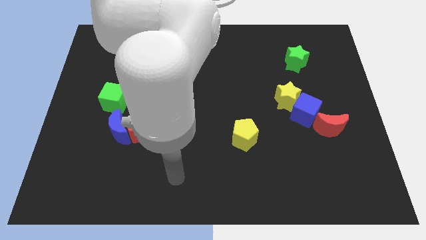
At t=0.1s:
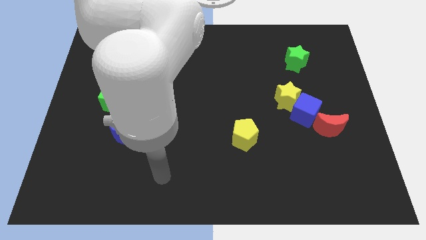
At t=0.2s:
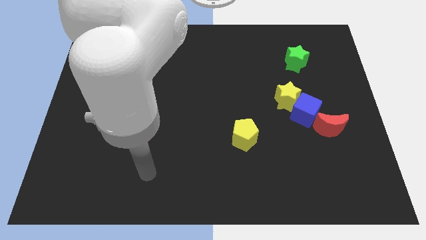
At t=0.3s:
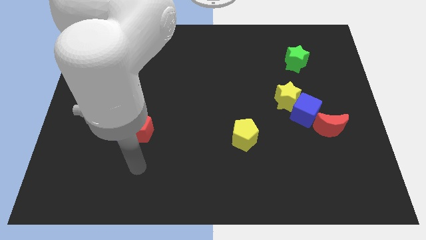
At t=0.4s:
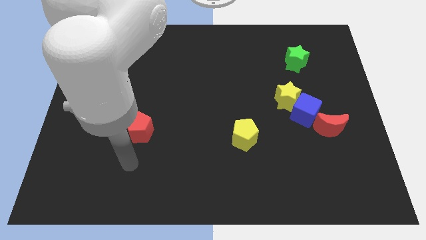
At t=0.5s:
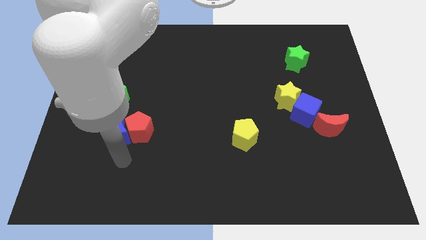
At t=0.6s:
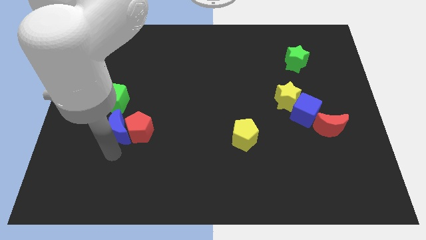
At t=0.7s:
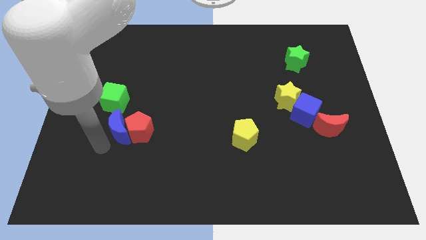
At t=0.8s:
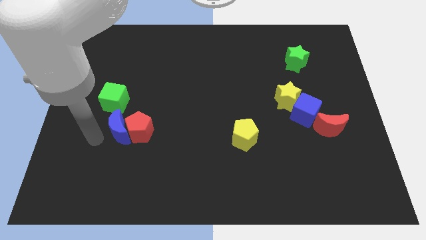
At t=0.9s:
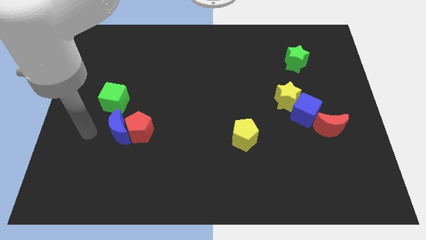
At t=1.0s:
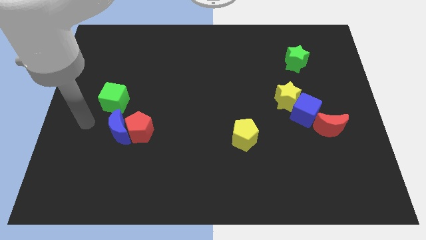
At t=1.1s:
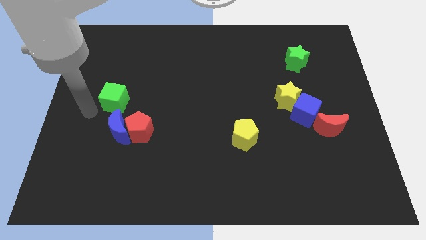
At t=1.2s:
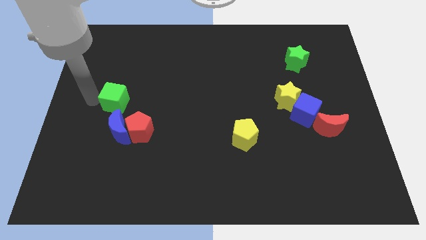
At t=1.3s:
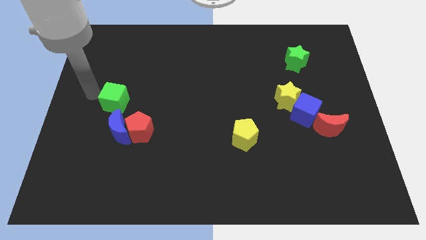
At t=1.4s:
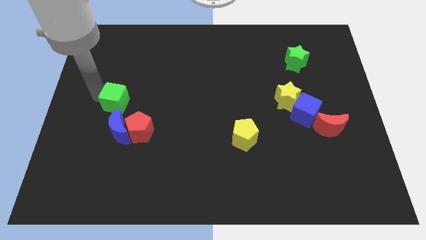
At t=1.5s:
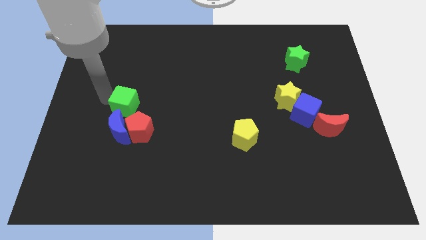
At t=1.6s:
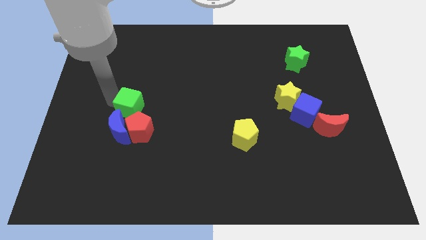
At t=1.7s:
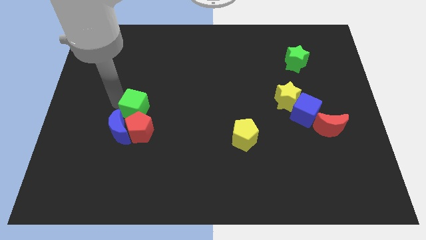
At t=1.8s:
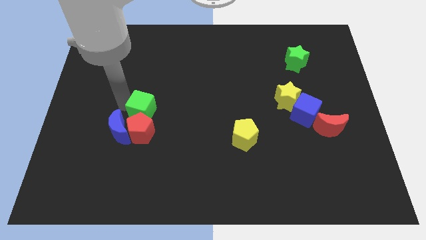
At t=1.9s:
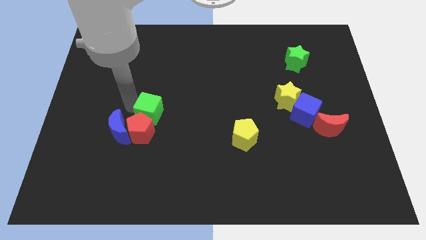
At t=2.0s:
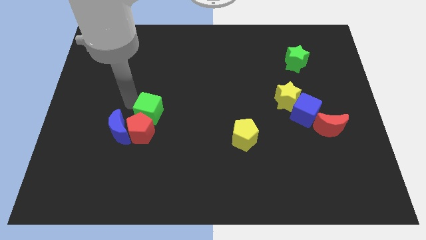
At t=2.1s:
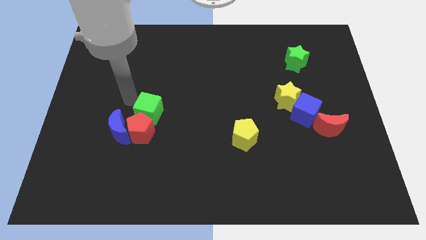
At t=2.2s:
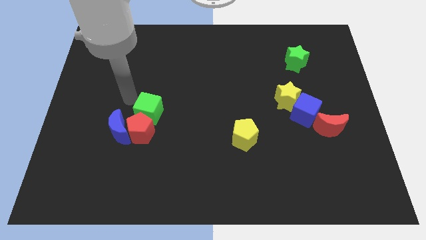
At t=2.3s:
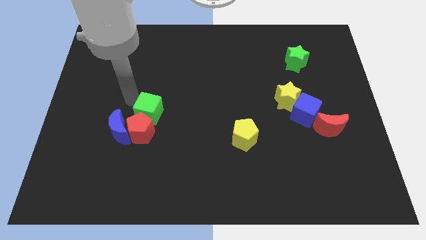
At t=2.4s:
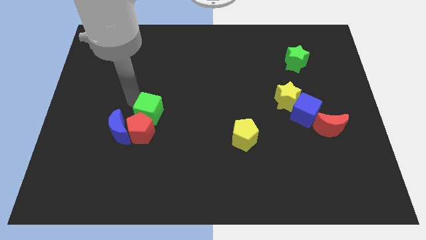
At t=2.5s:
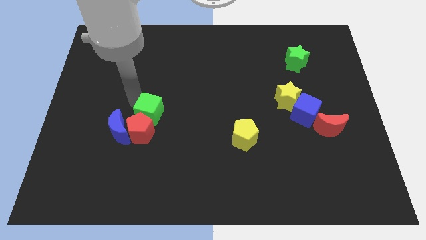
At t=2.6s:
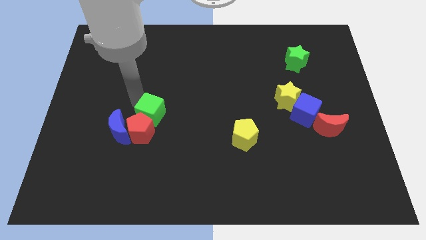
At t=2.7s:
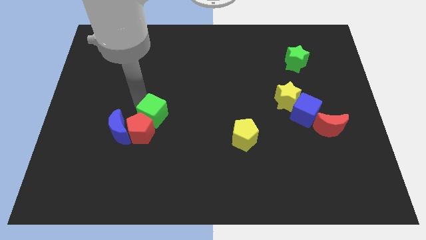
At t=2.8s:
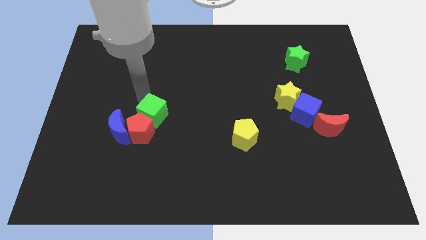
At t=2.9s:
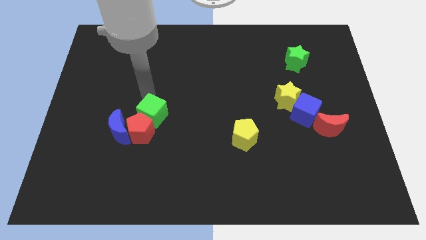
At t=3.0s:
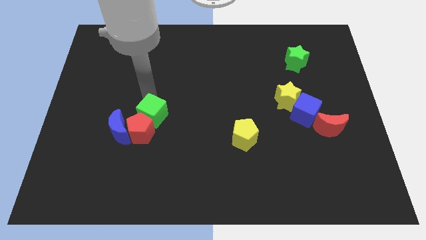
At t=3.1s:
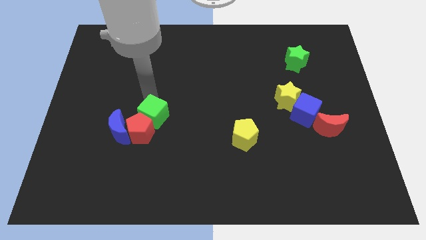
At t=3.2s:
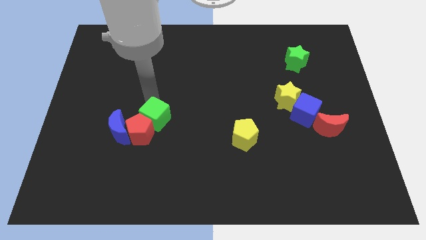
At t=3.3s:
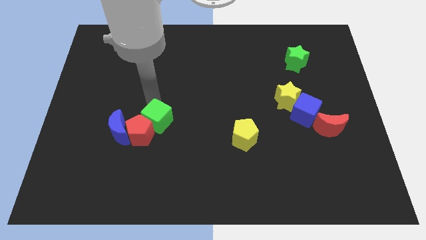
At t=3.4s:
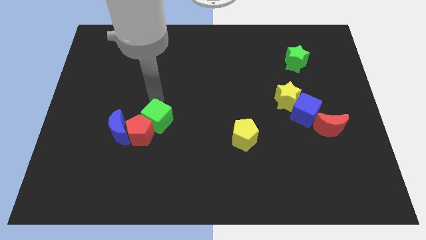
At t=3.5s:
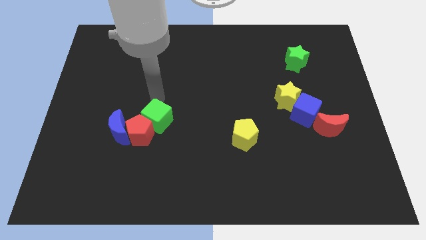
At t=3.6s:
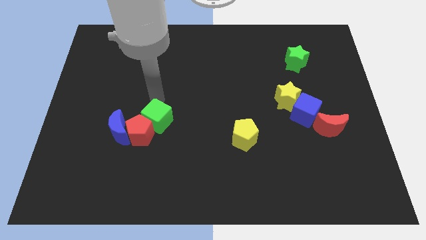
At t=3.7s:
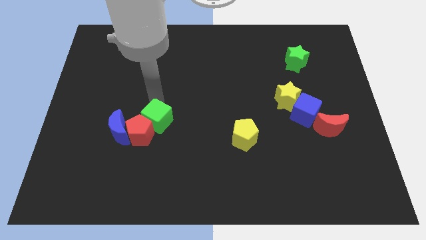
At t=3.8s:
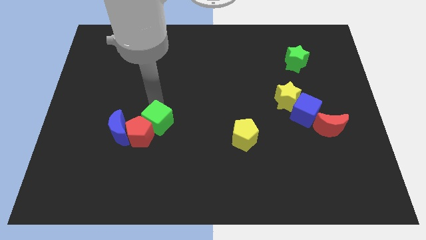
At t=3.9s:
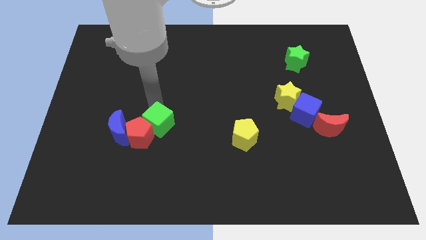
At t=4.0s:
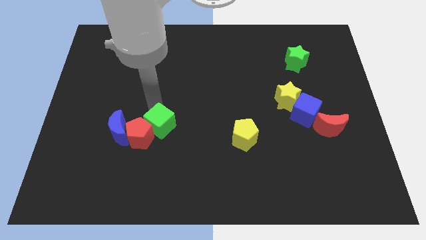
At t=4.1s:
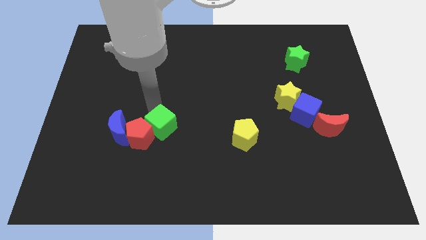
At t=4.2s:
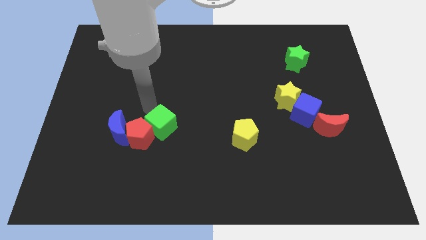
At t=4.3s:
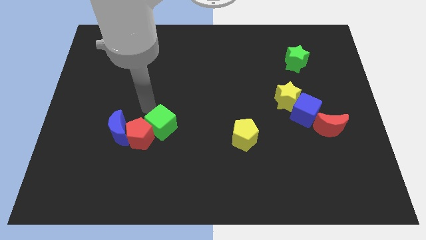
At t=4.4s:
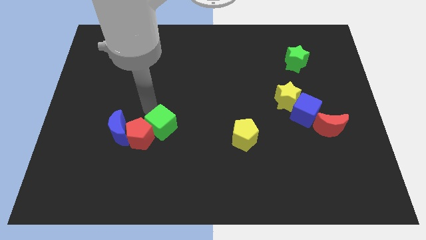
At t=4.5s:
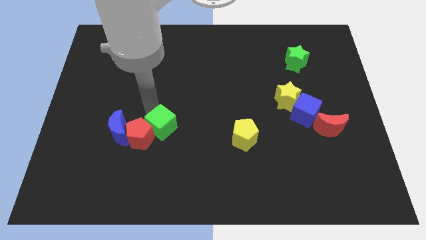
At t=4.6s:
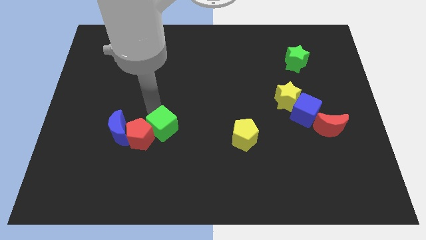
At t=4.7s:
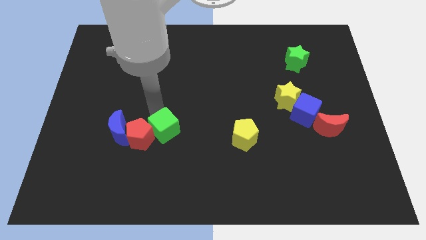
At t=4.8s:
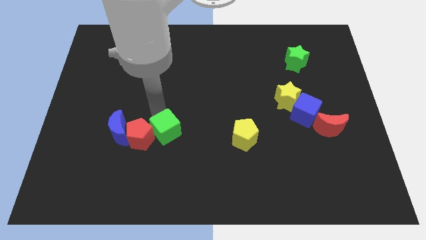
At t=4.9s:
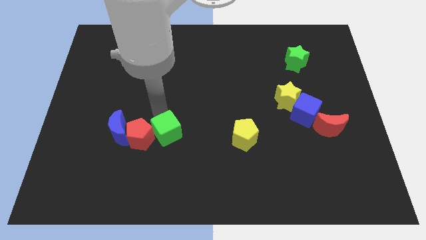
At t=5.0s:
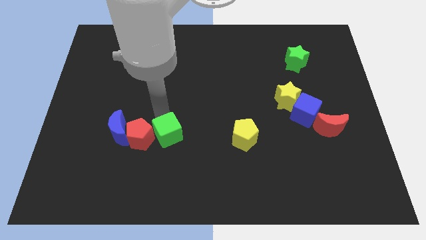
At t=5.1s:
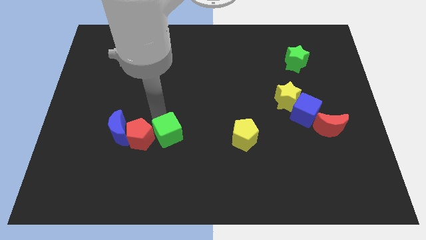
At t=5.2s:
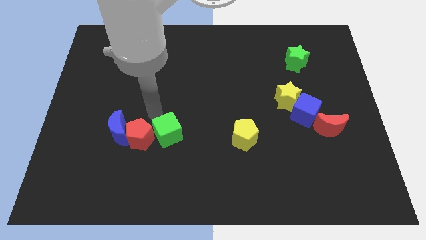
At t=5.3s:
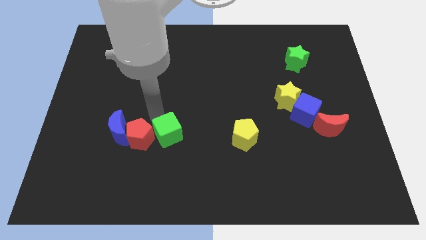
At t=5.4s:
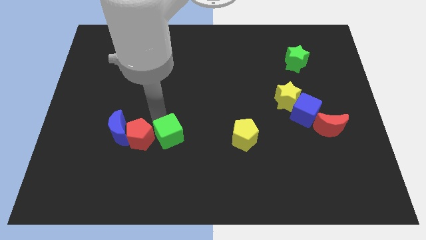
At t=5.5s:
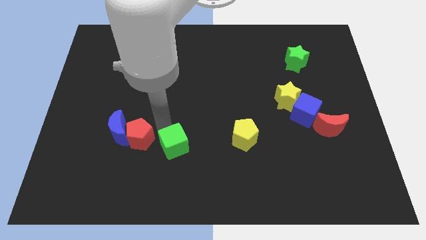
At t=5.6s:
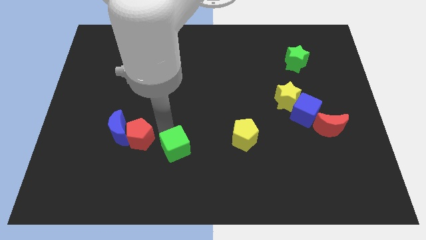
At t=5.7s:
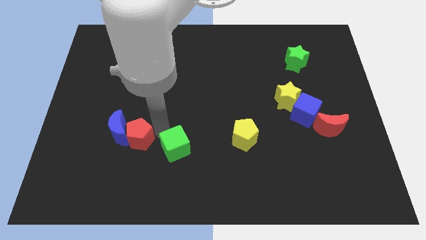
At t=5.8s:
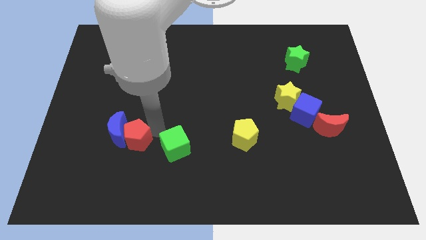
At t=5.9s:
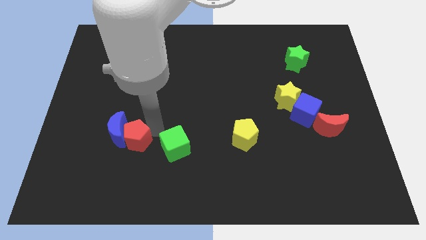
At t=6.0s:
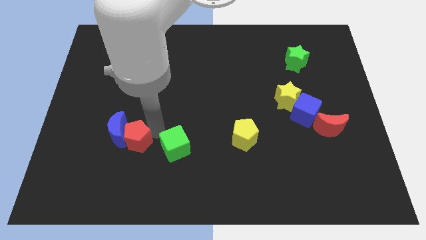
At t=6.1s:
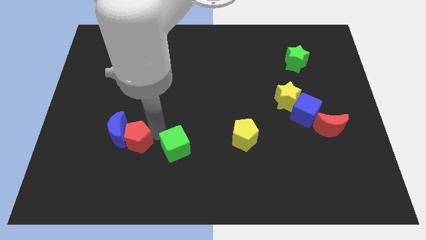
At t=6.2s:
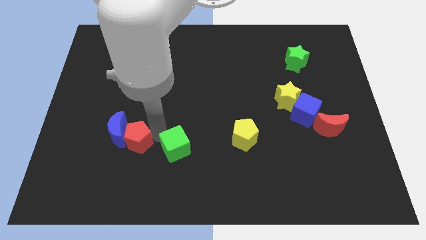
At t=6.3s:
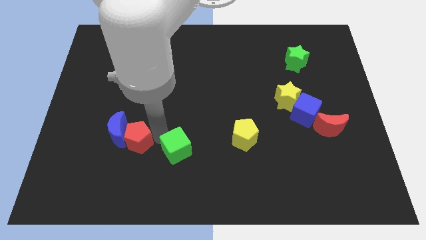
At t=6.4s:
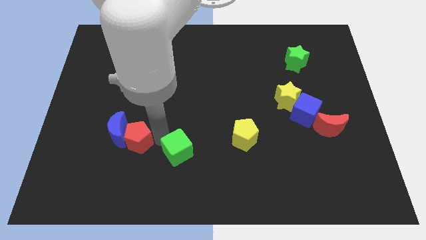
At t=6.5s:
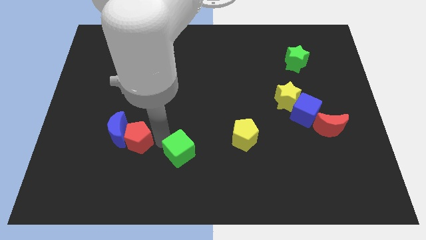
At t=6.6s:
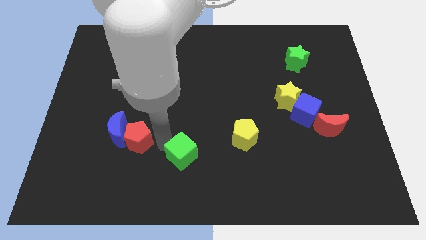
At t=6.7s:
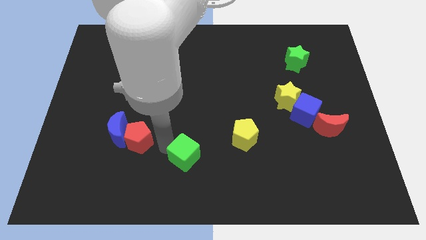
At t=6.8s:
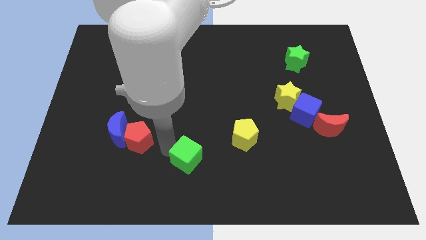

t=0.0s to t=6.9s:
push the green cube to the bottom side
